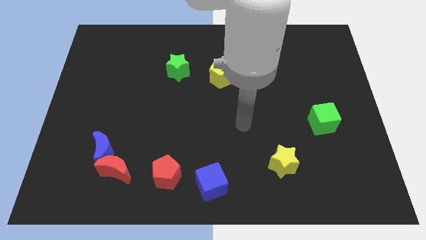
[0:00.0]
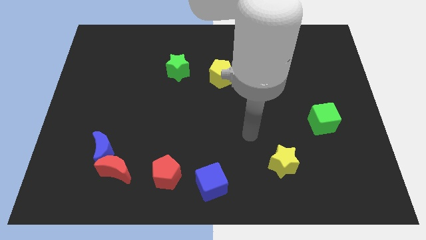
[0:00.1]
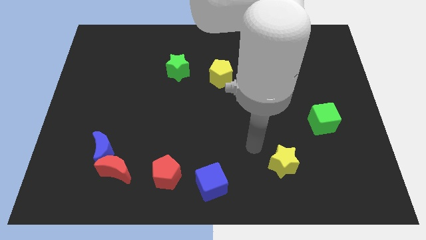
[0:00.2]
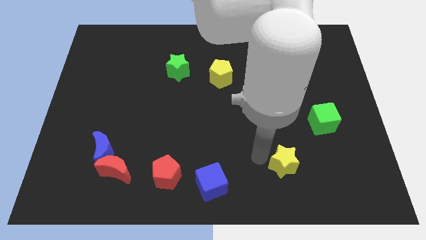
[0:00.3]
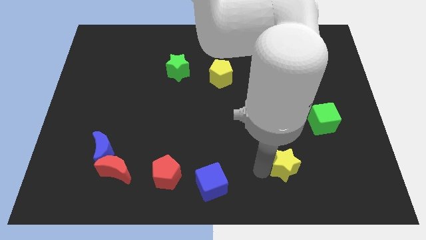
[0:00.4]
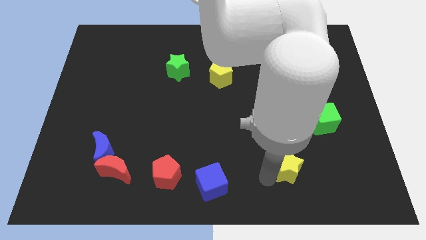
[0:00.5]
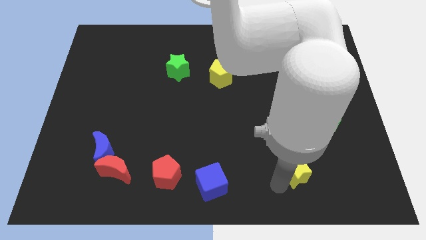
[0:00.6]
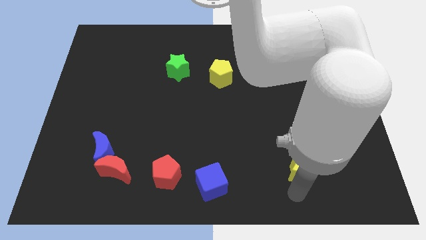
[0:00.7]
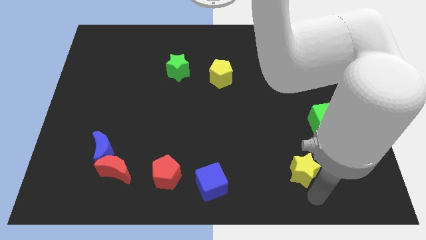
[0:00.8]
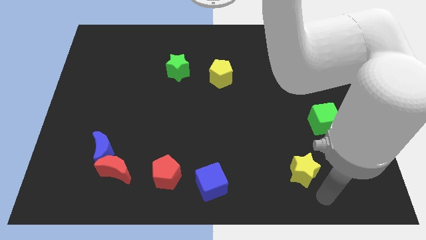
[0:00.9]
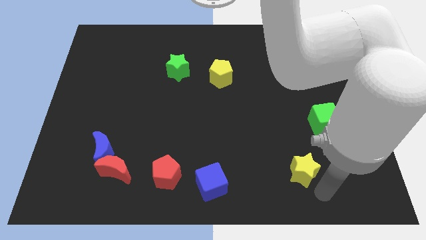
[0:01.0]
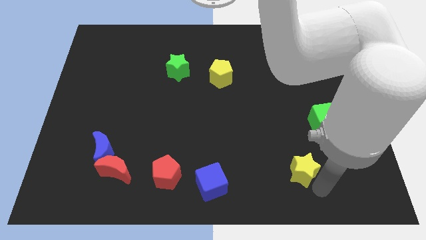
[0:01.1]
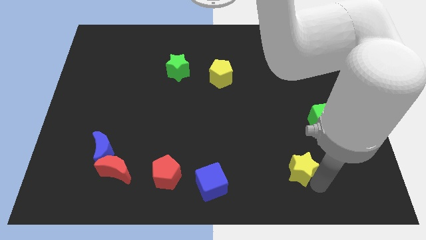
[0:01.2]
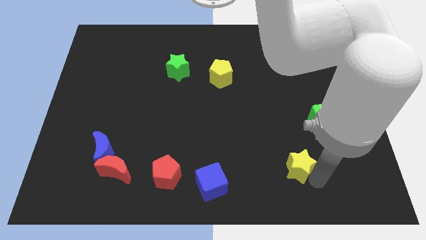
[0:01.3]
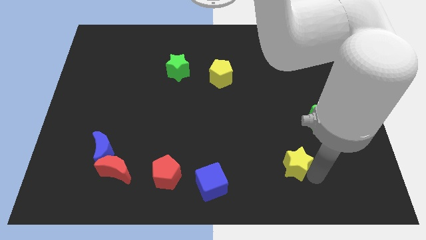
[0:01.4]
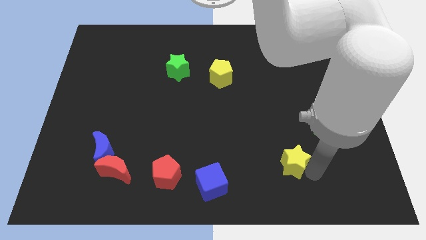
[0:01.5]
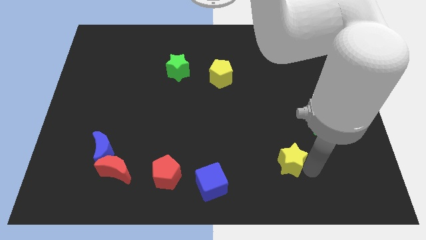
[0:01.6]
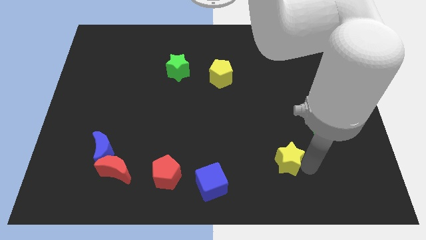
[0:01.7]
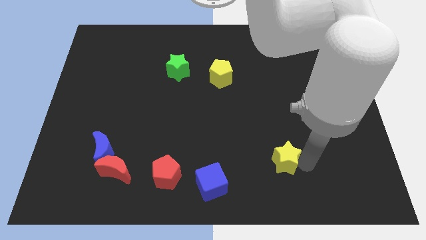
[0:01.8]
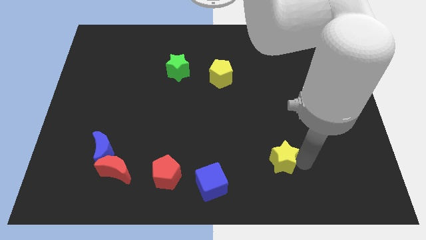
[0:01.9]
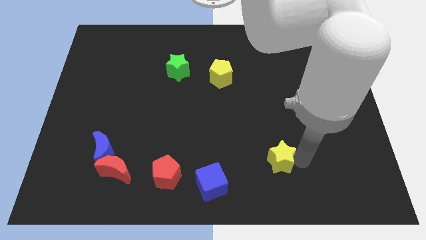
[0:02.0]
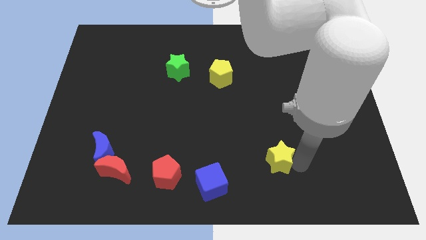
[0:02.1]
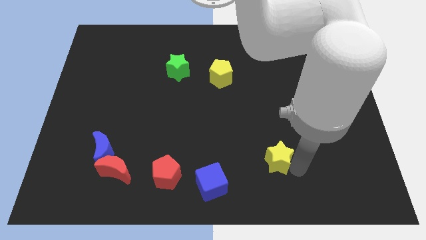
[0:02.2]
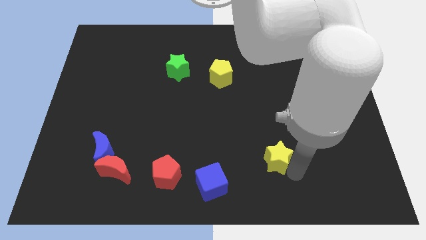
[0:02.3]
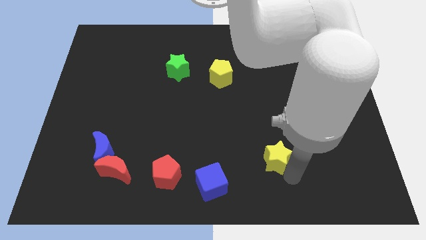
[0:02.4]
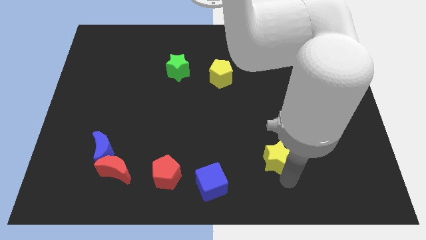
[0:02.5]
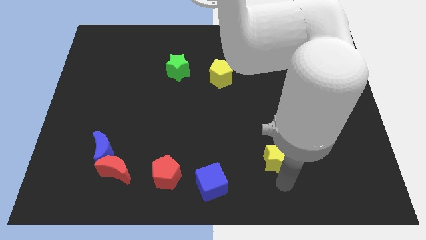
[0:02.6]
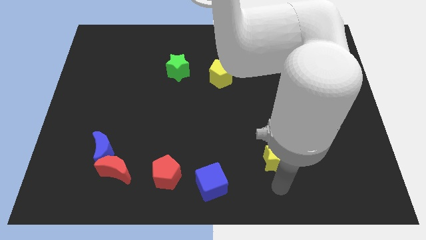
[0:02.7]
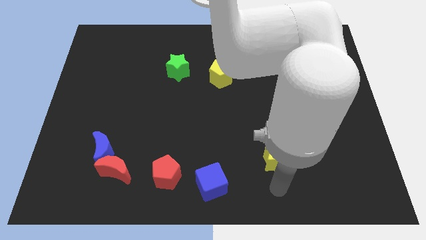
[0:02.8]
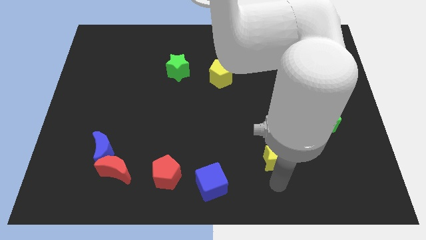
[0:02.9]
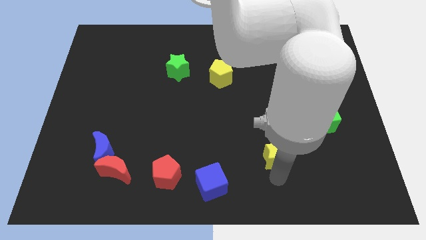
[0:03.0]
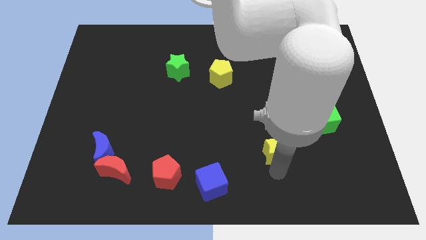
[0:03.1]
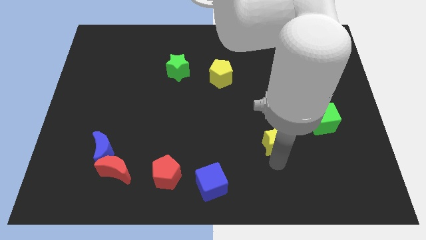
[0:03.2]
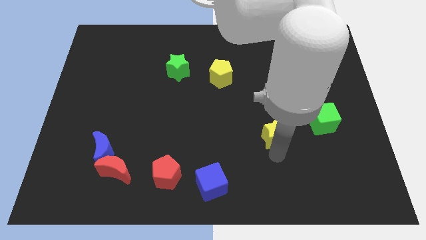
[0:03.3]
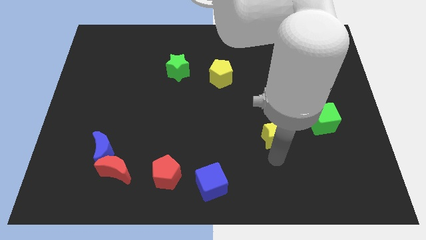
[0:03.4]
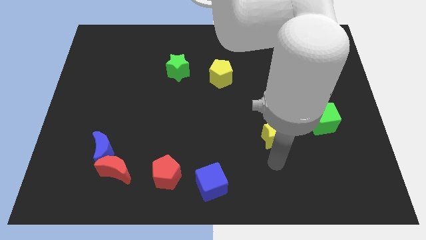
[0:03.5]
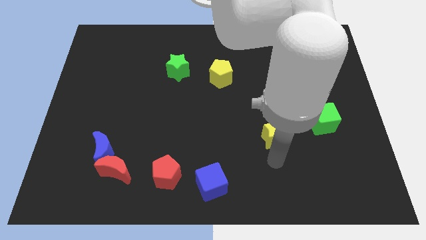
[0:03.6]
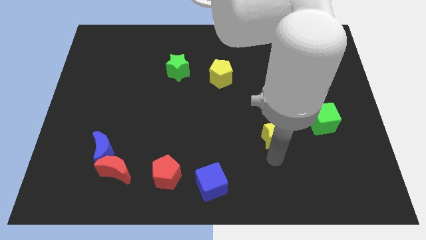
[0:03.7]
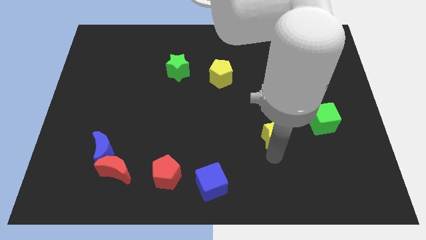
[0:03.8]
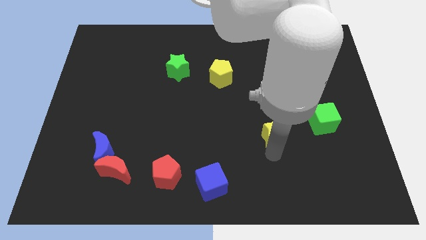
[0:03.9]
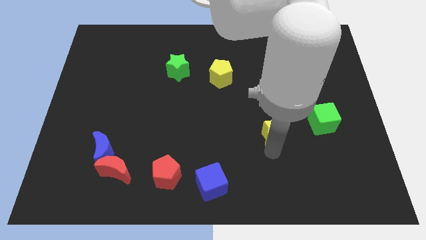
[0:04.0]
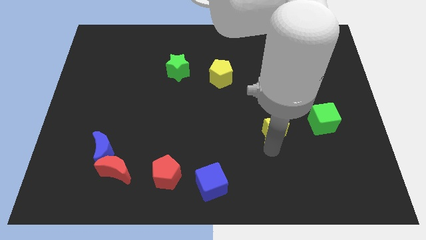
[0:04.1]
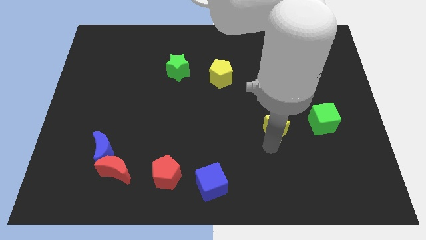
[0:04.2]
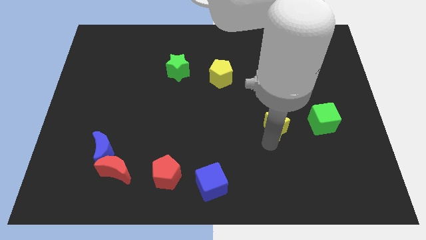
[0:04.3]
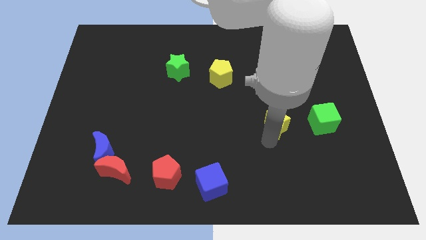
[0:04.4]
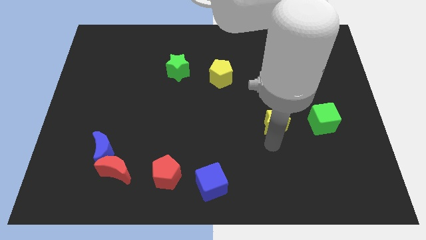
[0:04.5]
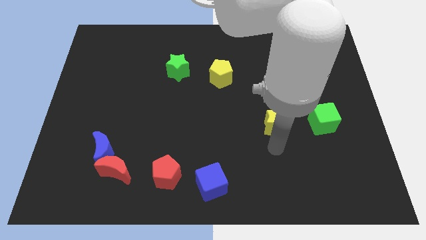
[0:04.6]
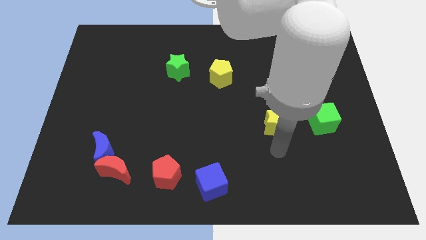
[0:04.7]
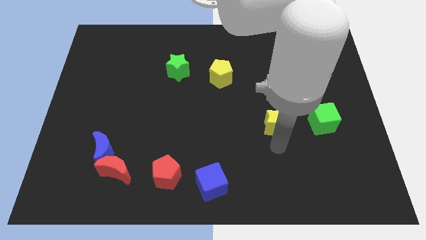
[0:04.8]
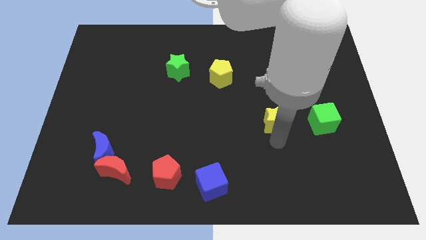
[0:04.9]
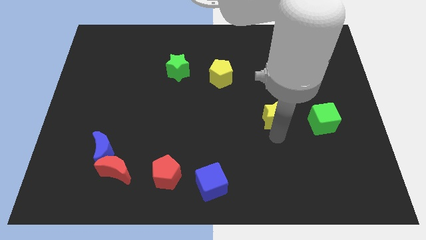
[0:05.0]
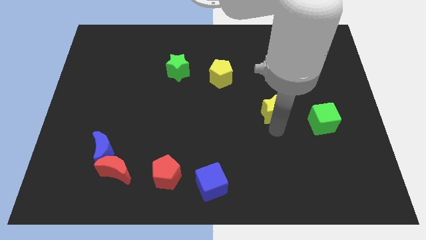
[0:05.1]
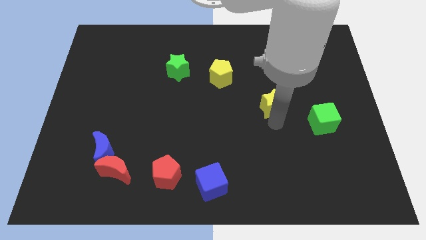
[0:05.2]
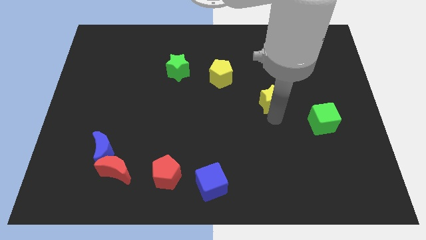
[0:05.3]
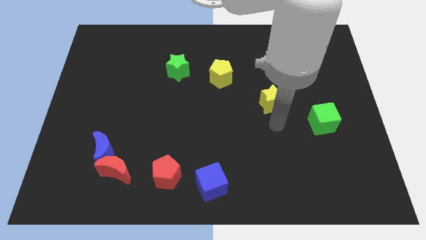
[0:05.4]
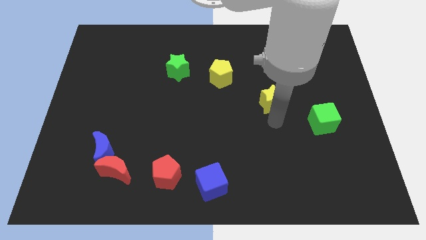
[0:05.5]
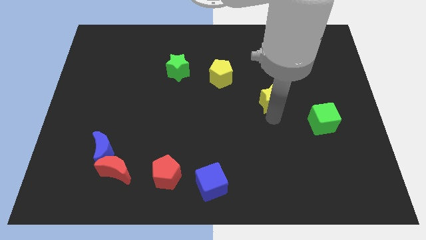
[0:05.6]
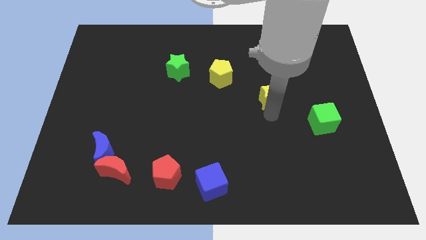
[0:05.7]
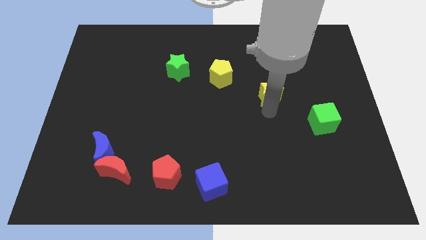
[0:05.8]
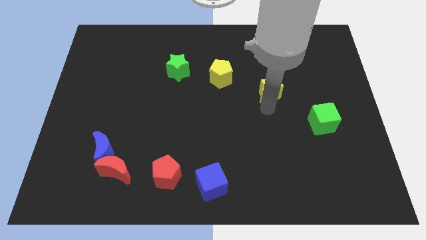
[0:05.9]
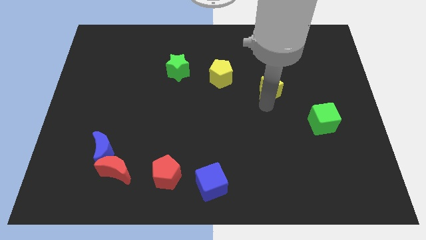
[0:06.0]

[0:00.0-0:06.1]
move the yellow star up

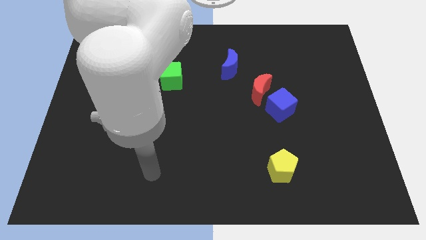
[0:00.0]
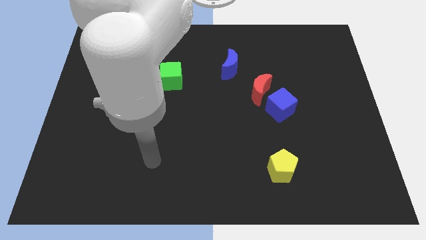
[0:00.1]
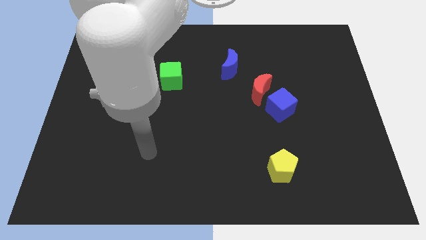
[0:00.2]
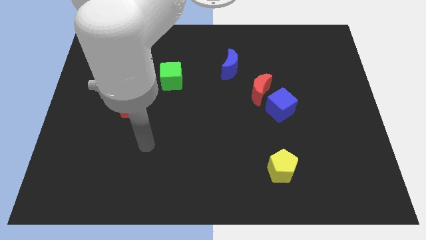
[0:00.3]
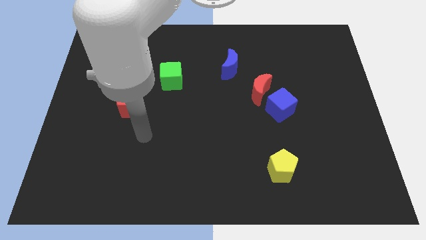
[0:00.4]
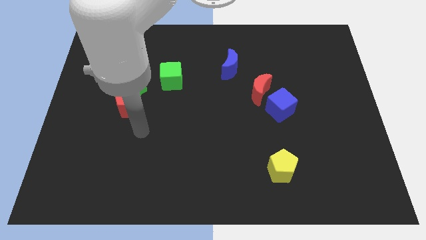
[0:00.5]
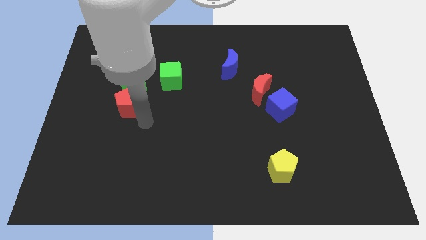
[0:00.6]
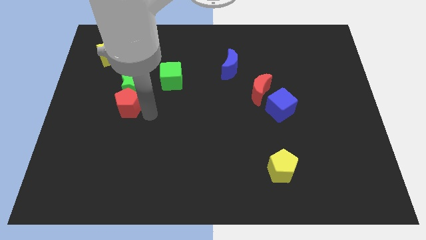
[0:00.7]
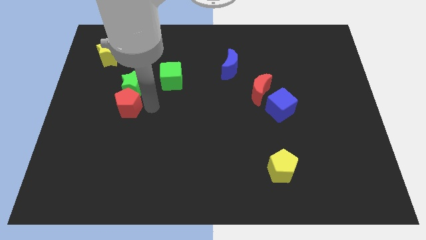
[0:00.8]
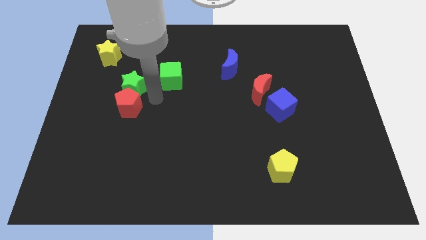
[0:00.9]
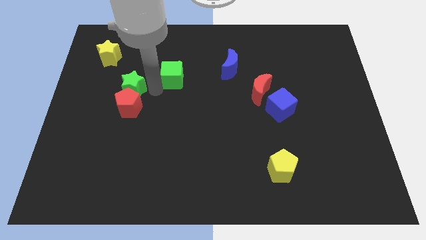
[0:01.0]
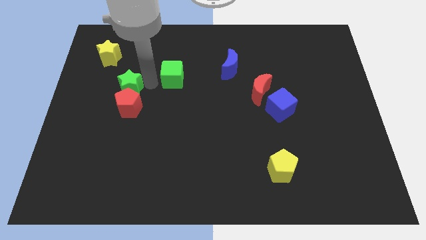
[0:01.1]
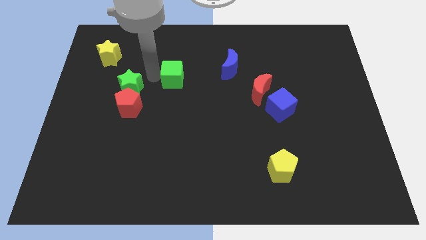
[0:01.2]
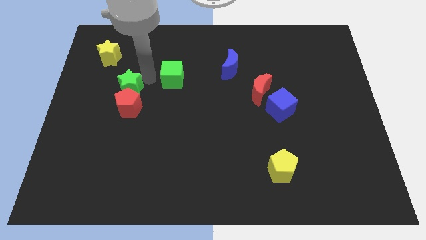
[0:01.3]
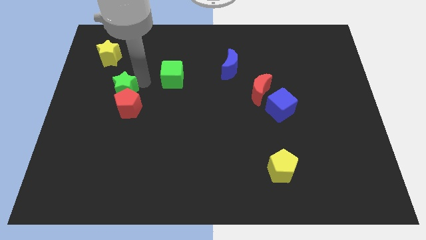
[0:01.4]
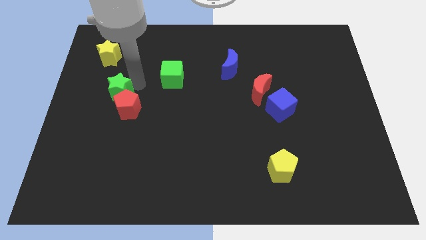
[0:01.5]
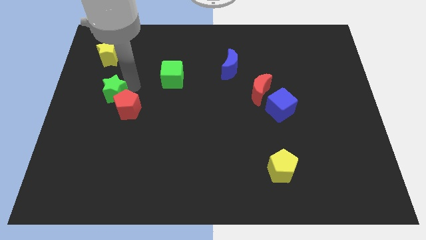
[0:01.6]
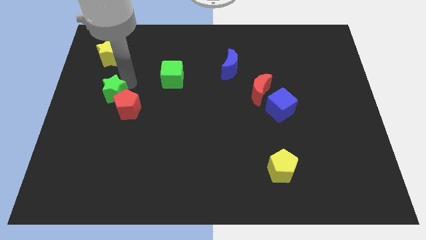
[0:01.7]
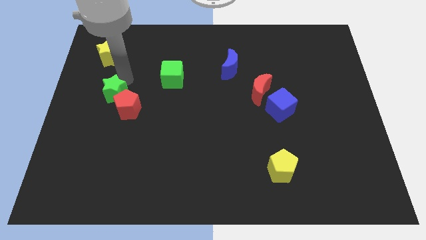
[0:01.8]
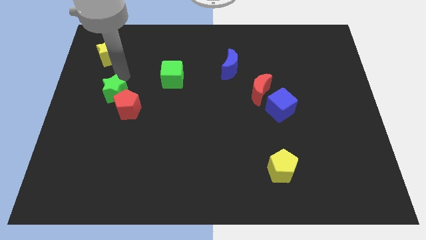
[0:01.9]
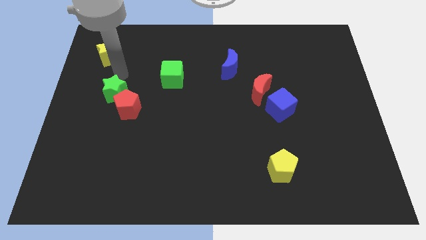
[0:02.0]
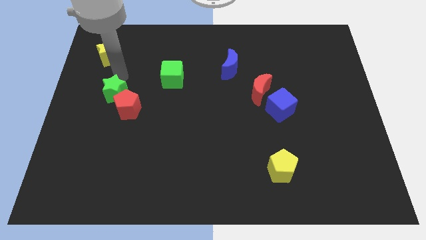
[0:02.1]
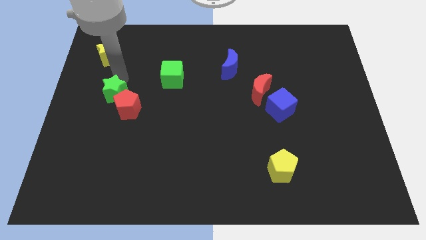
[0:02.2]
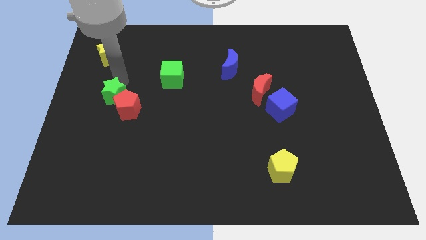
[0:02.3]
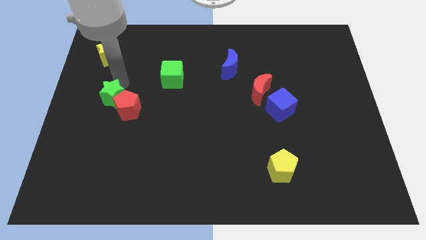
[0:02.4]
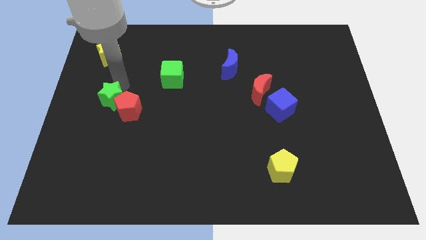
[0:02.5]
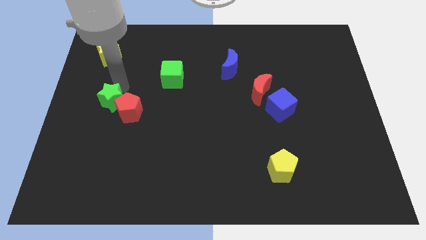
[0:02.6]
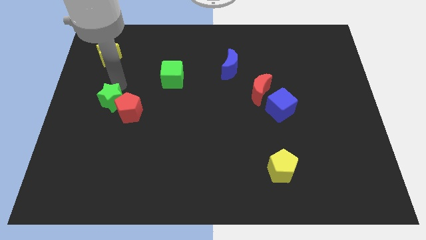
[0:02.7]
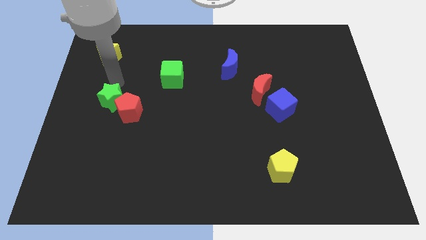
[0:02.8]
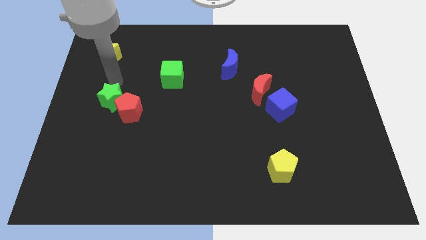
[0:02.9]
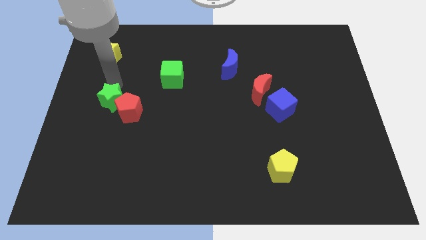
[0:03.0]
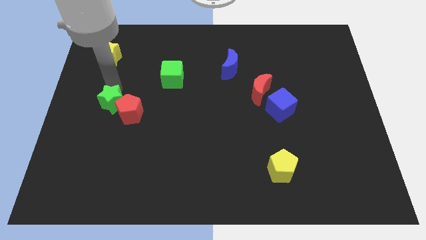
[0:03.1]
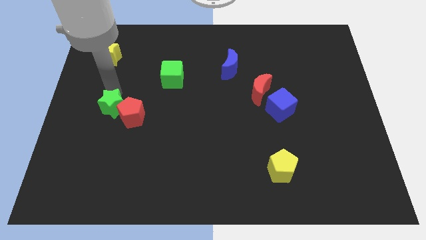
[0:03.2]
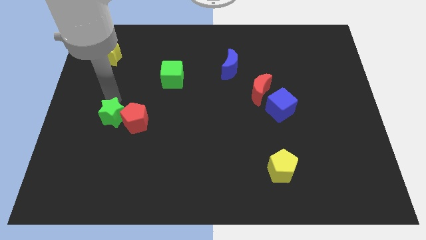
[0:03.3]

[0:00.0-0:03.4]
push the green star down a little bit
